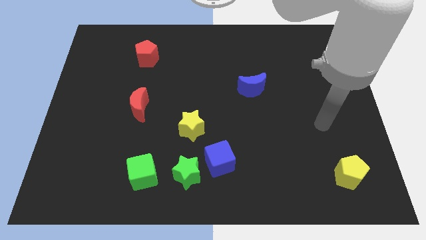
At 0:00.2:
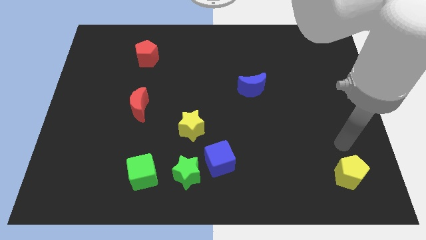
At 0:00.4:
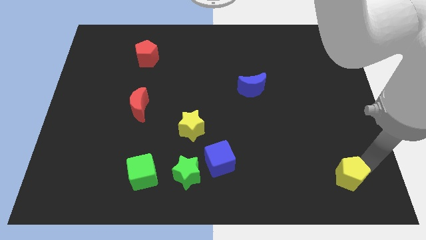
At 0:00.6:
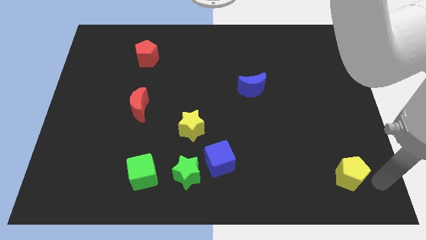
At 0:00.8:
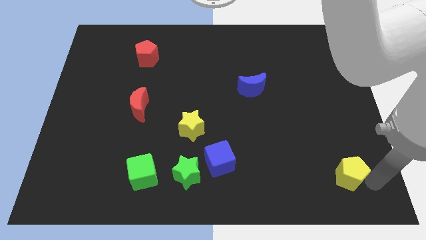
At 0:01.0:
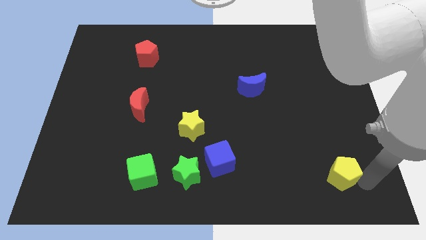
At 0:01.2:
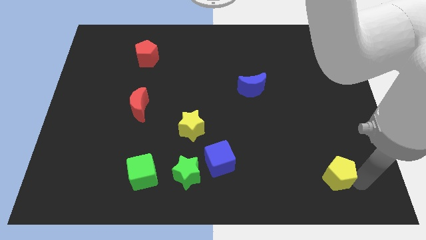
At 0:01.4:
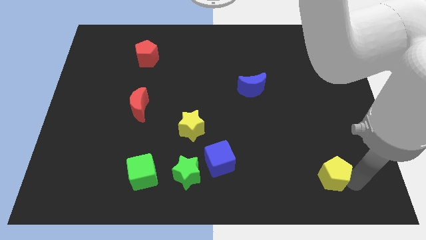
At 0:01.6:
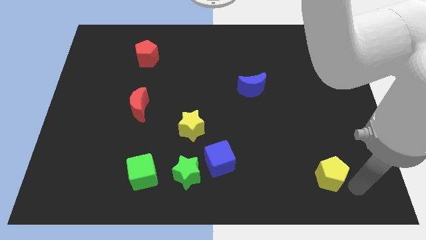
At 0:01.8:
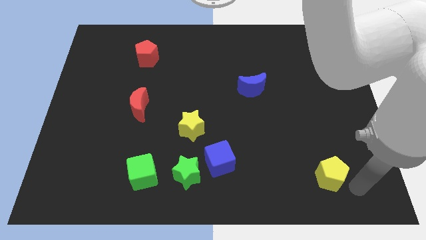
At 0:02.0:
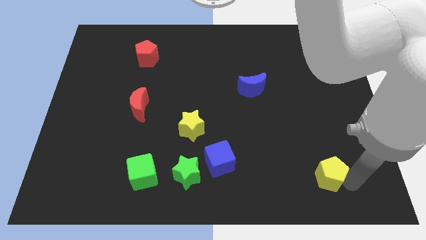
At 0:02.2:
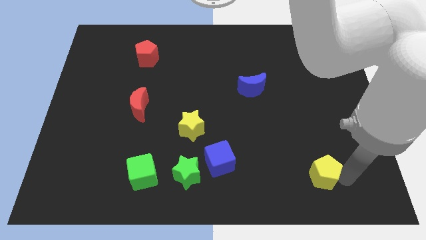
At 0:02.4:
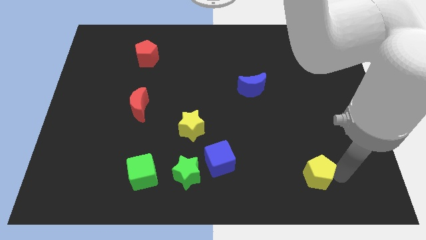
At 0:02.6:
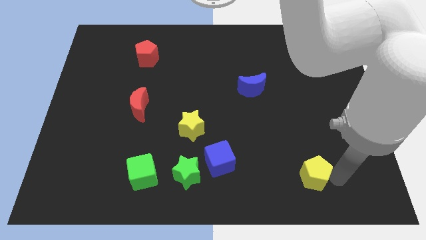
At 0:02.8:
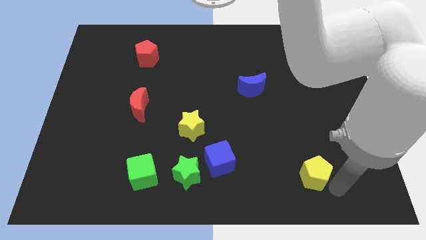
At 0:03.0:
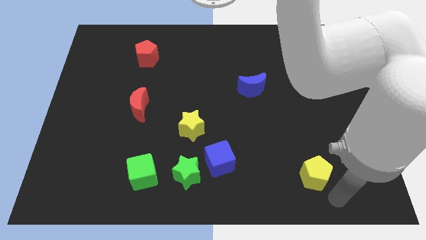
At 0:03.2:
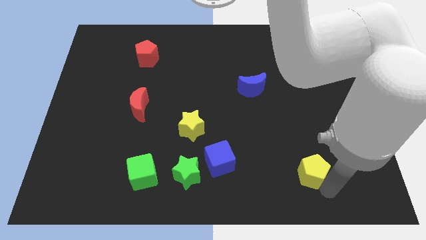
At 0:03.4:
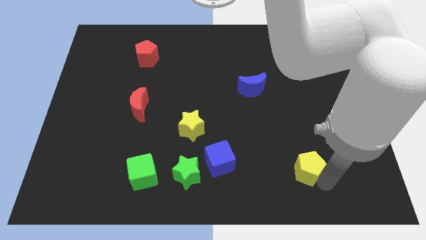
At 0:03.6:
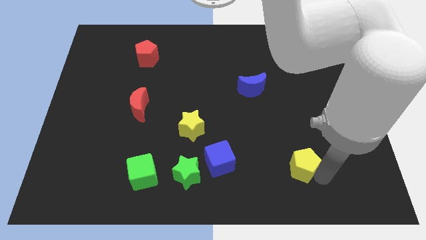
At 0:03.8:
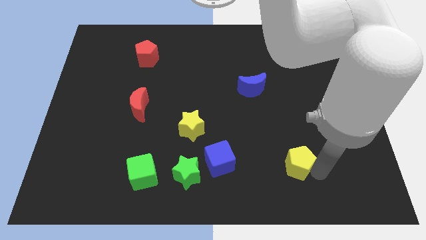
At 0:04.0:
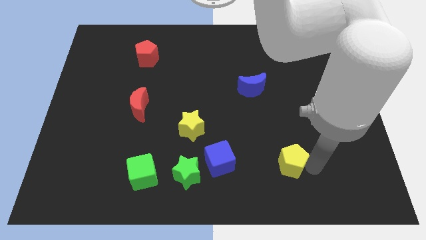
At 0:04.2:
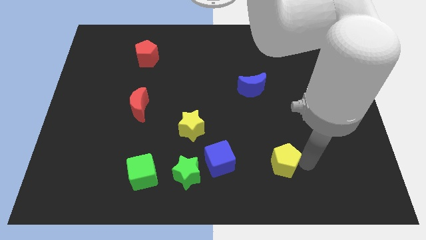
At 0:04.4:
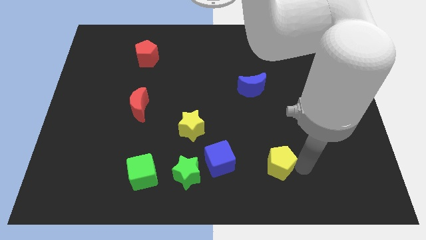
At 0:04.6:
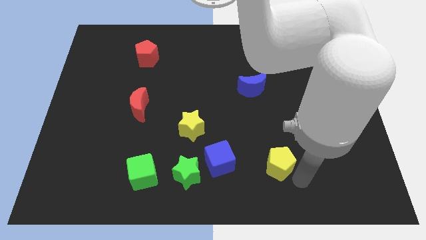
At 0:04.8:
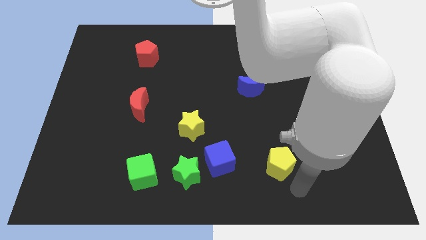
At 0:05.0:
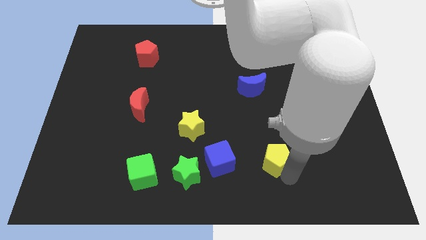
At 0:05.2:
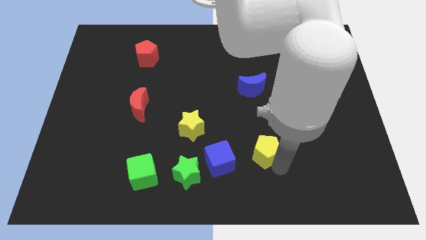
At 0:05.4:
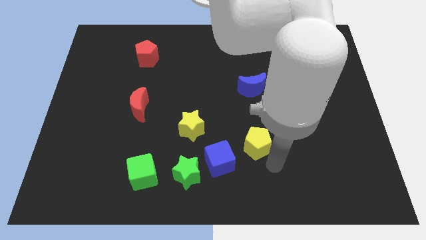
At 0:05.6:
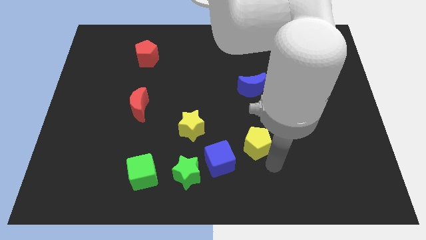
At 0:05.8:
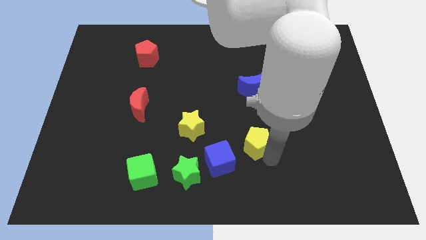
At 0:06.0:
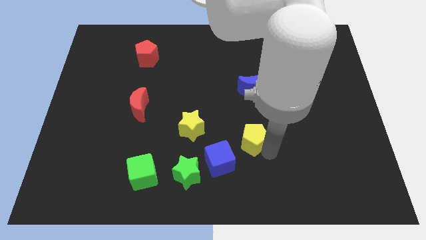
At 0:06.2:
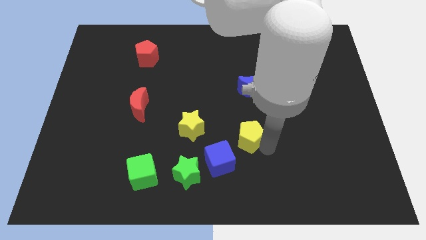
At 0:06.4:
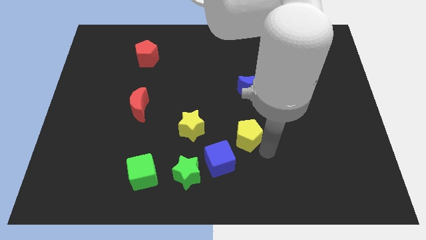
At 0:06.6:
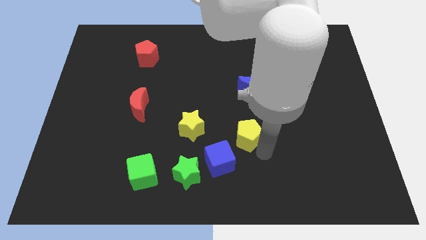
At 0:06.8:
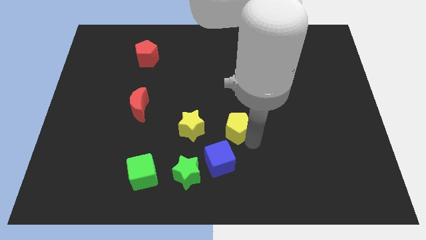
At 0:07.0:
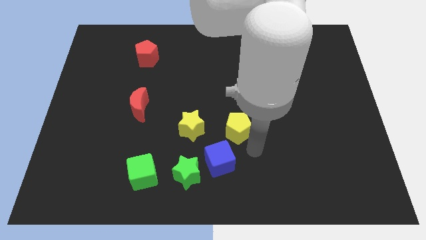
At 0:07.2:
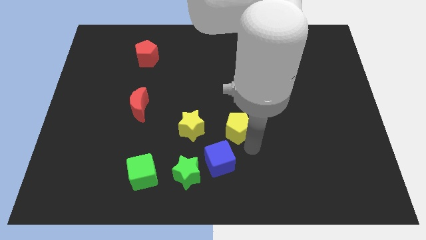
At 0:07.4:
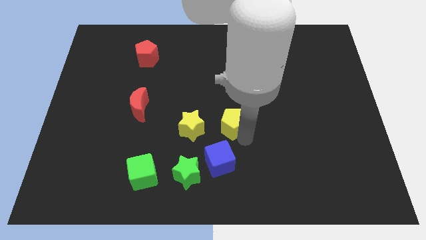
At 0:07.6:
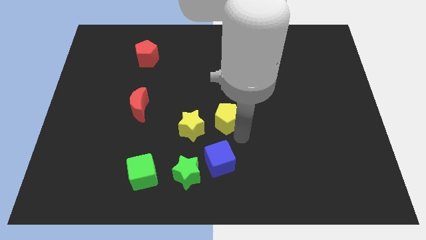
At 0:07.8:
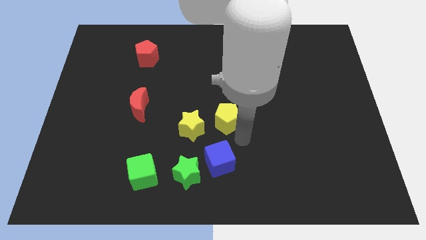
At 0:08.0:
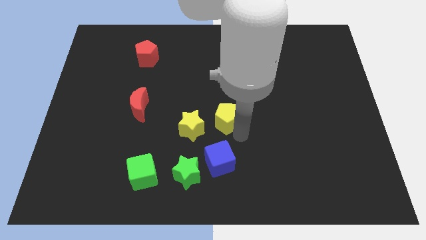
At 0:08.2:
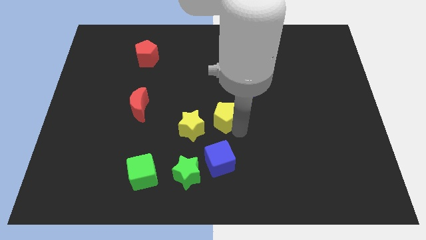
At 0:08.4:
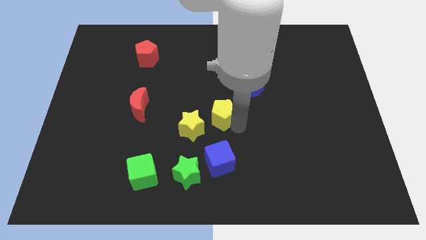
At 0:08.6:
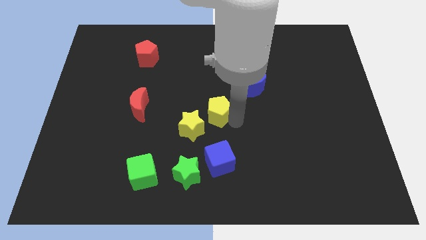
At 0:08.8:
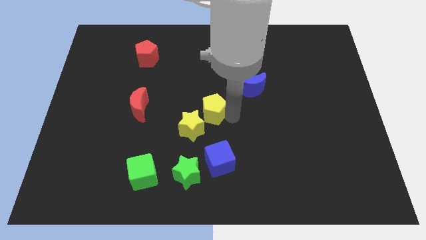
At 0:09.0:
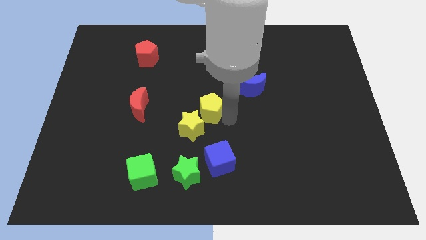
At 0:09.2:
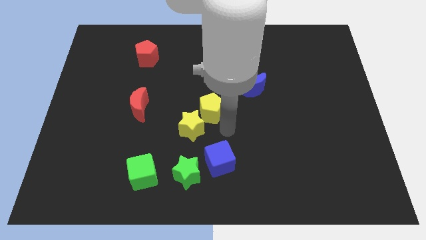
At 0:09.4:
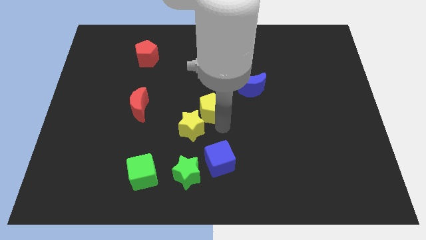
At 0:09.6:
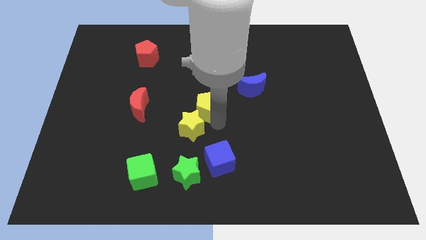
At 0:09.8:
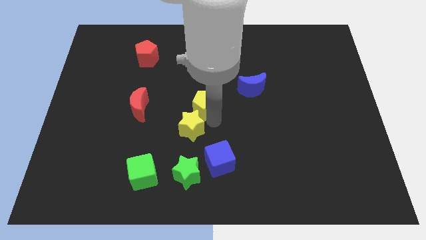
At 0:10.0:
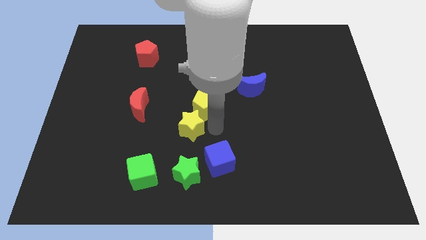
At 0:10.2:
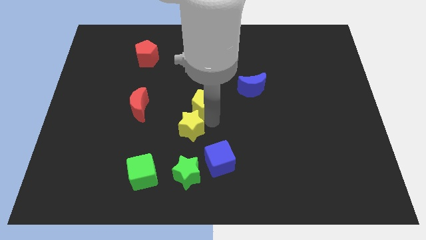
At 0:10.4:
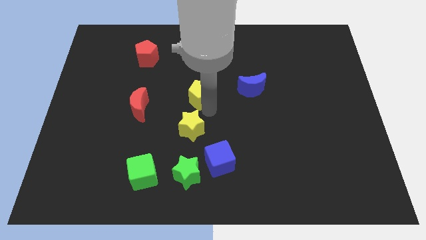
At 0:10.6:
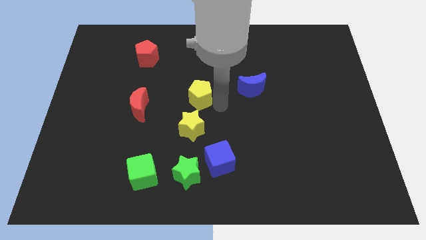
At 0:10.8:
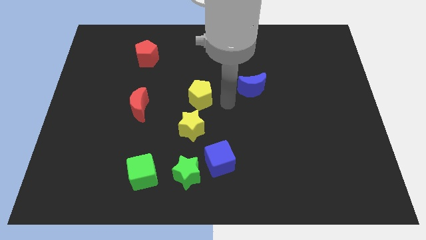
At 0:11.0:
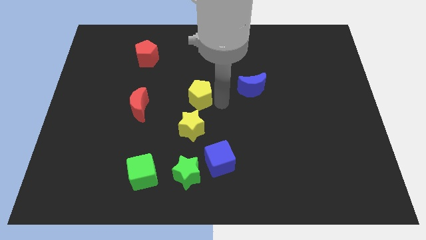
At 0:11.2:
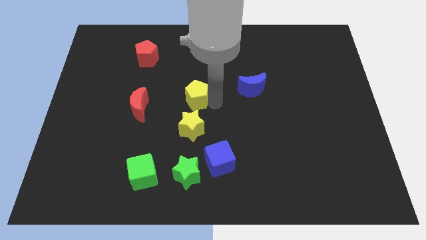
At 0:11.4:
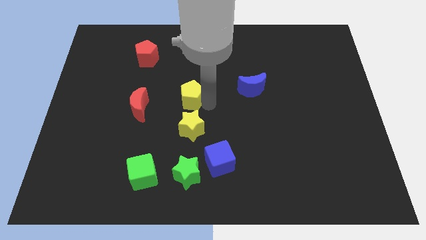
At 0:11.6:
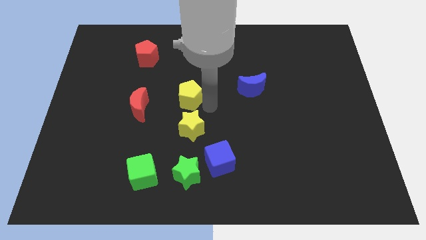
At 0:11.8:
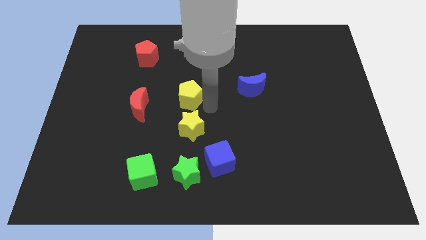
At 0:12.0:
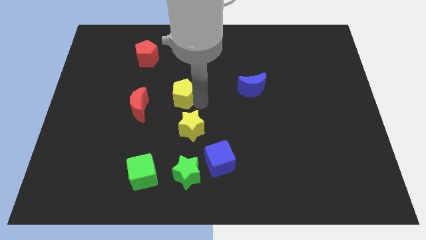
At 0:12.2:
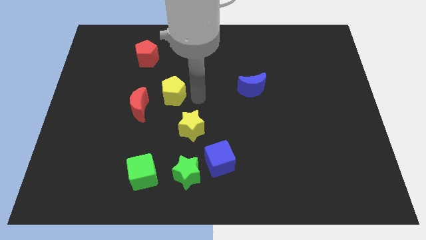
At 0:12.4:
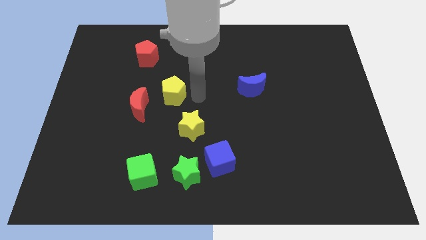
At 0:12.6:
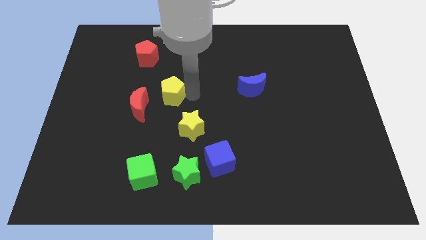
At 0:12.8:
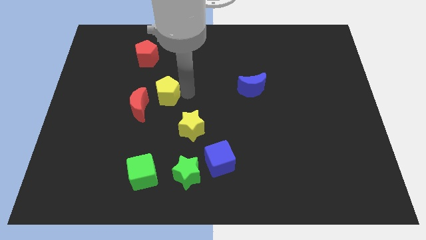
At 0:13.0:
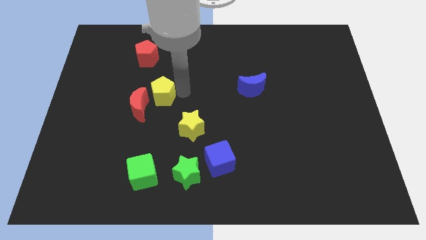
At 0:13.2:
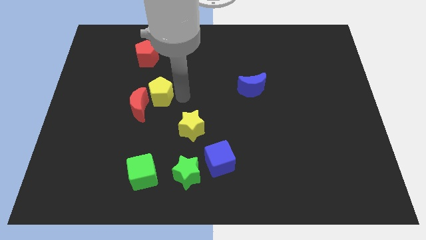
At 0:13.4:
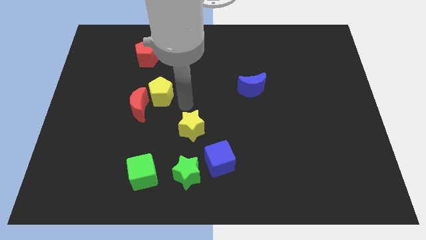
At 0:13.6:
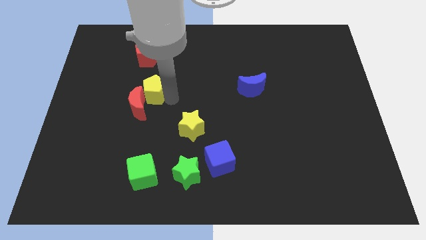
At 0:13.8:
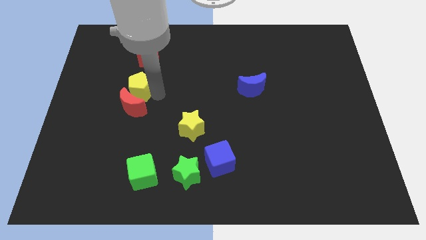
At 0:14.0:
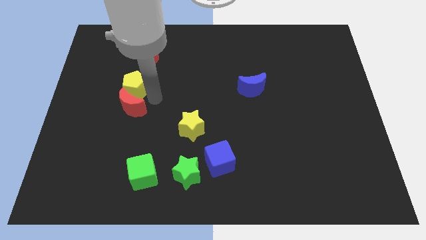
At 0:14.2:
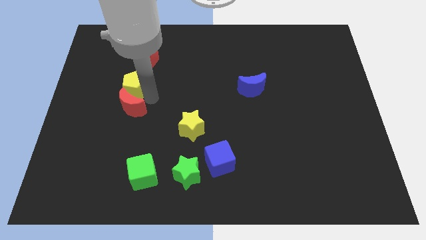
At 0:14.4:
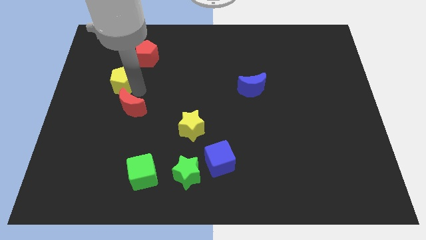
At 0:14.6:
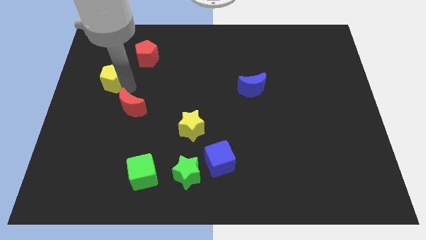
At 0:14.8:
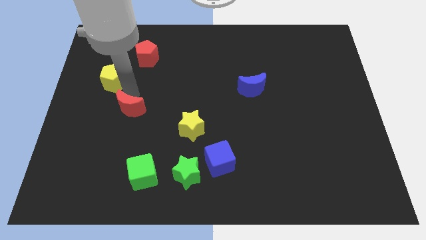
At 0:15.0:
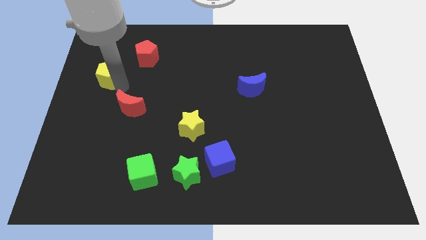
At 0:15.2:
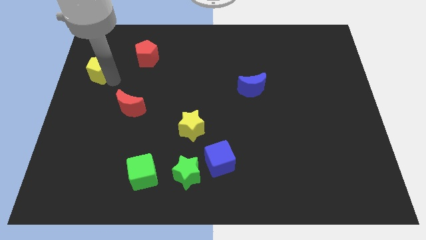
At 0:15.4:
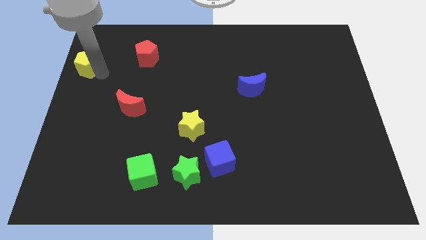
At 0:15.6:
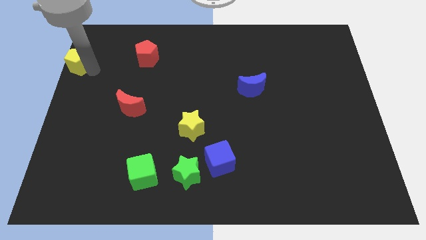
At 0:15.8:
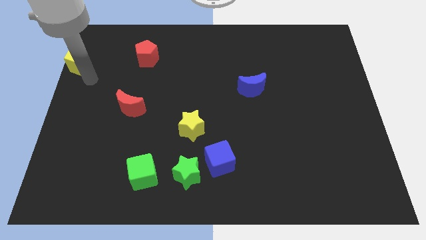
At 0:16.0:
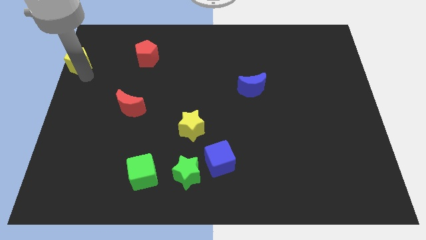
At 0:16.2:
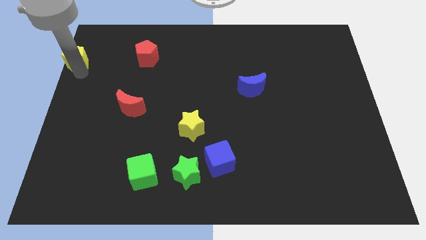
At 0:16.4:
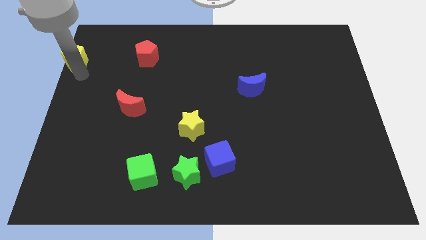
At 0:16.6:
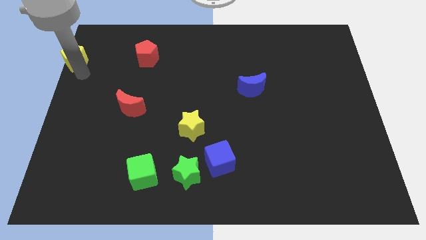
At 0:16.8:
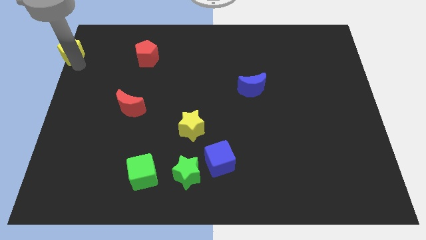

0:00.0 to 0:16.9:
slide the yellow pentagon to the top left
